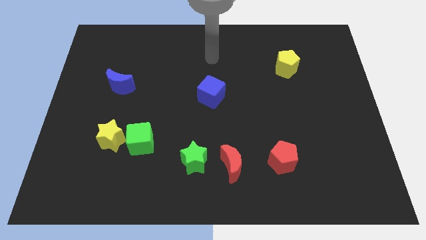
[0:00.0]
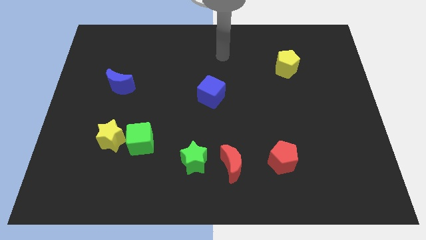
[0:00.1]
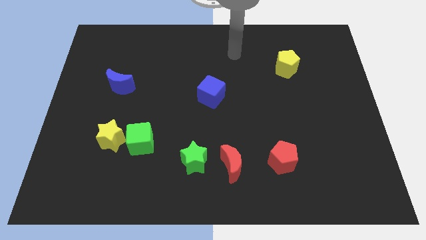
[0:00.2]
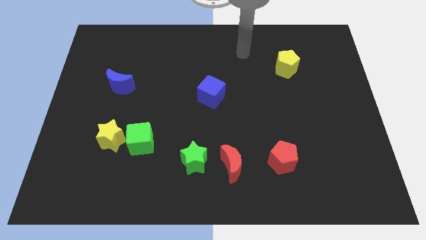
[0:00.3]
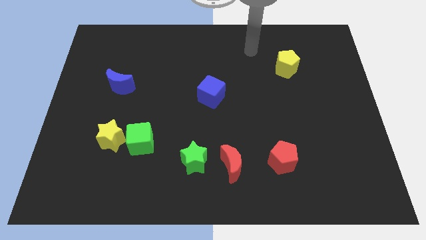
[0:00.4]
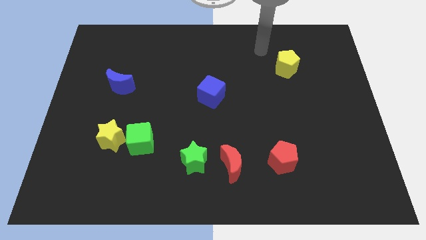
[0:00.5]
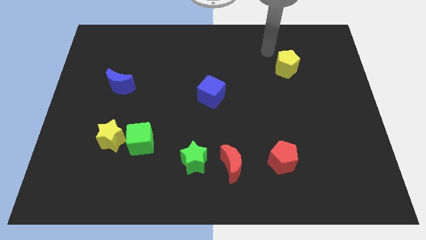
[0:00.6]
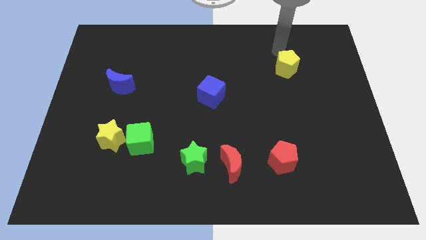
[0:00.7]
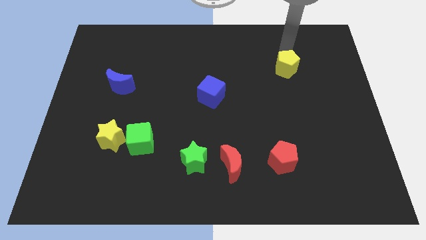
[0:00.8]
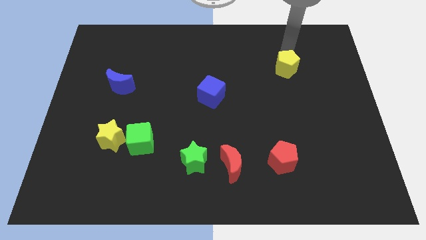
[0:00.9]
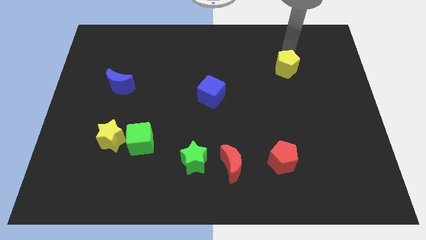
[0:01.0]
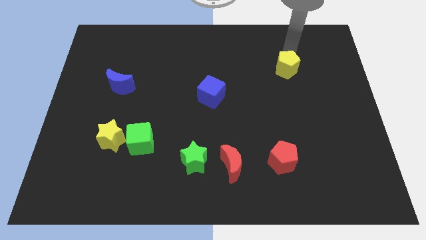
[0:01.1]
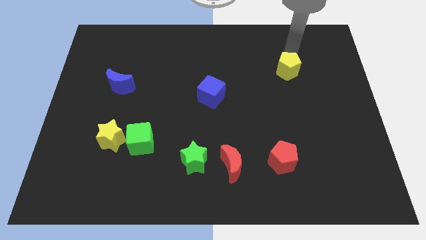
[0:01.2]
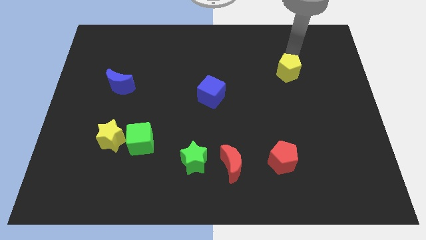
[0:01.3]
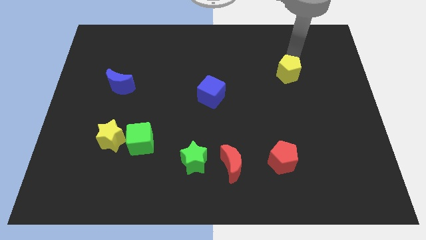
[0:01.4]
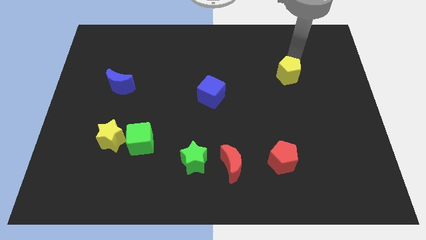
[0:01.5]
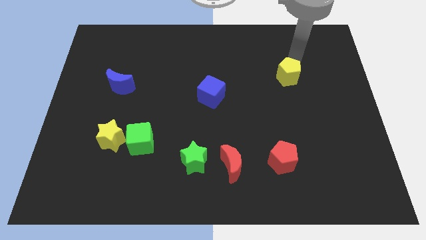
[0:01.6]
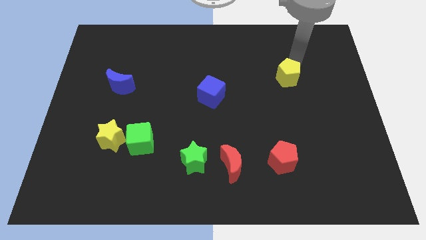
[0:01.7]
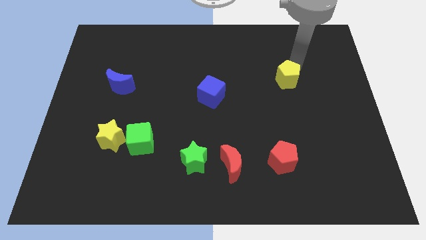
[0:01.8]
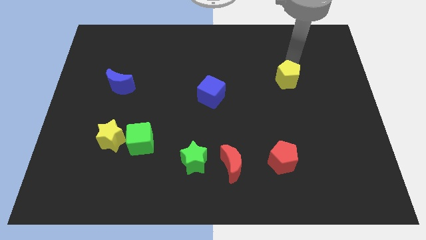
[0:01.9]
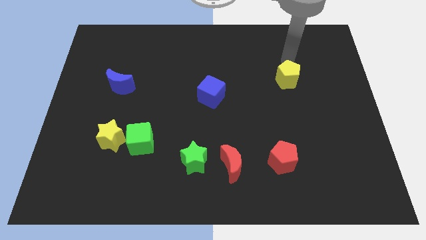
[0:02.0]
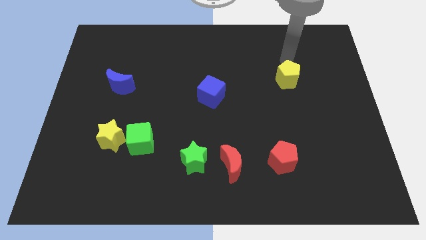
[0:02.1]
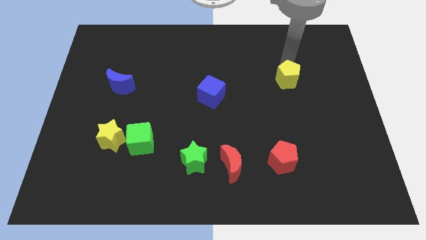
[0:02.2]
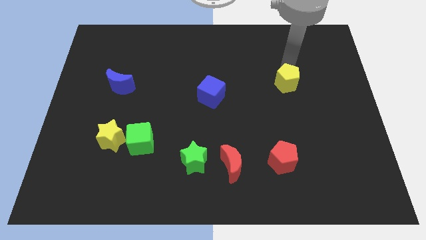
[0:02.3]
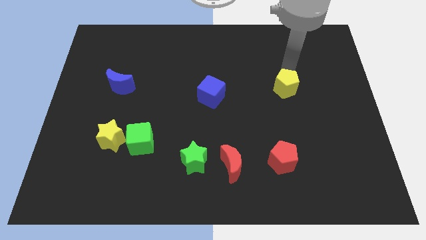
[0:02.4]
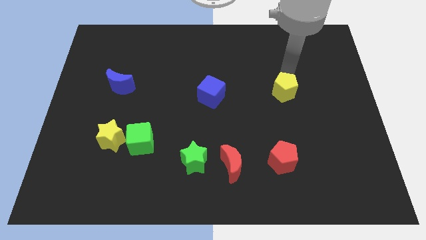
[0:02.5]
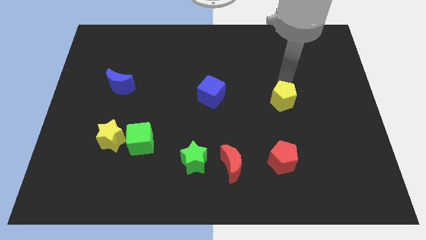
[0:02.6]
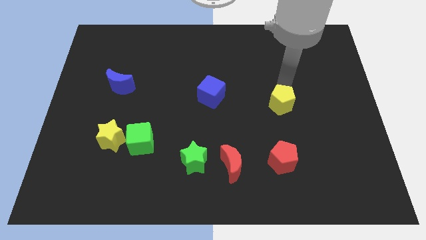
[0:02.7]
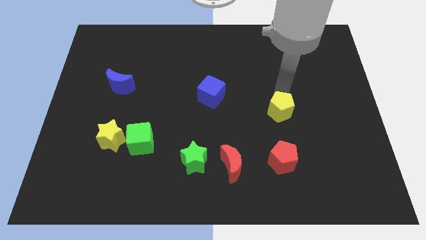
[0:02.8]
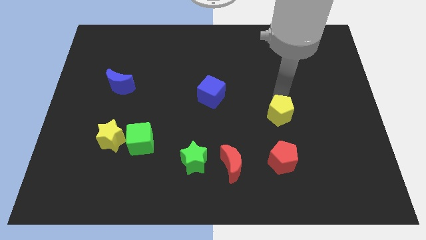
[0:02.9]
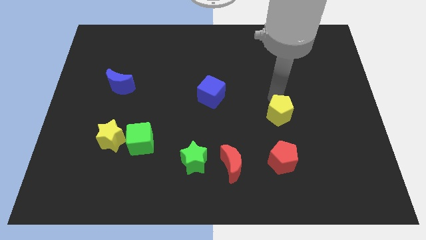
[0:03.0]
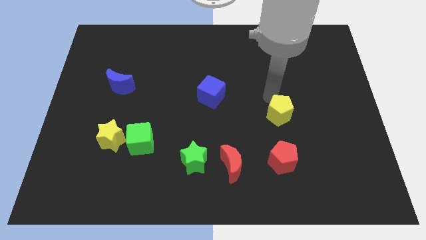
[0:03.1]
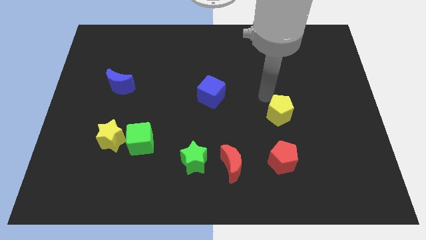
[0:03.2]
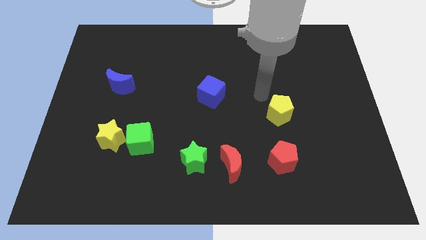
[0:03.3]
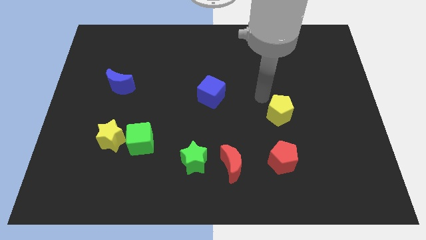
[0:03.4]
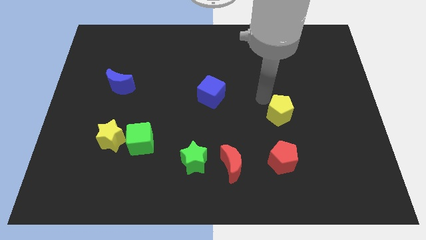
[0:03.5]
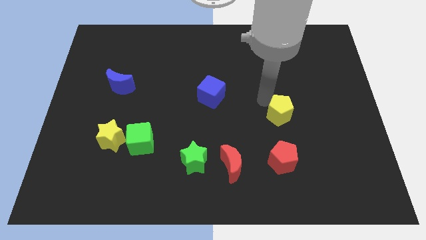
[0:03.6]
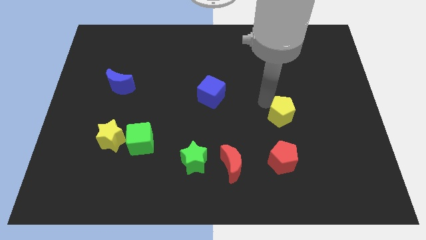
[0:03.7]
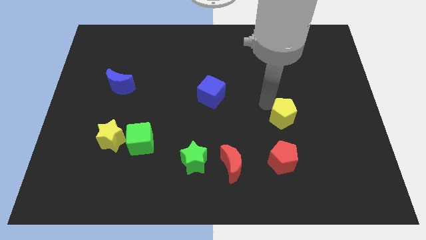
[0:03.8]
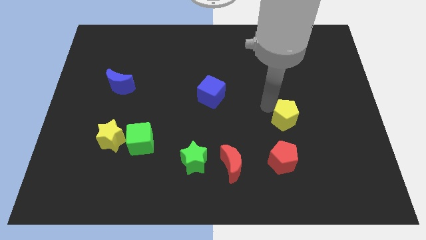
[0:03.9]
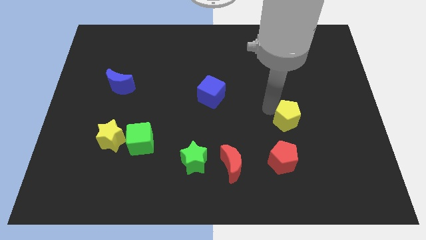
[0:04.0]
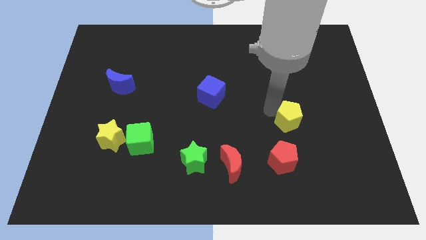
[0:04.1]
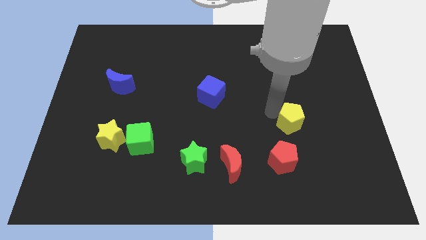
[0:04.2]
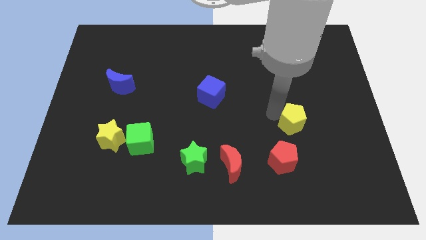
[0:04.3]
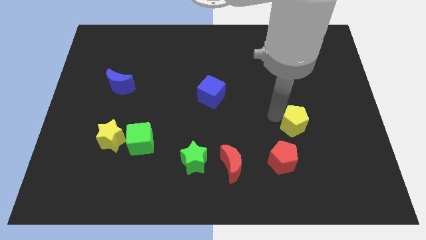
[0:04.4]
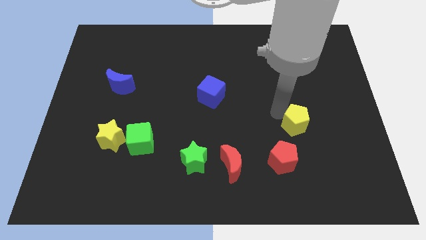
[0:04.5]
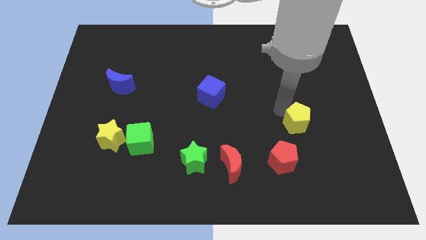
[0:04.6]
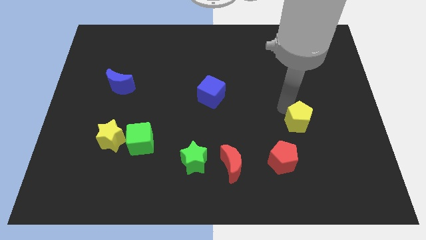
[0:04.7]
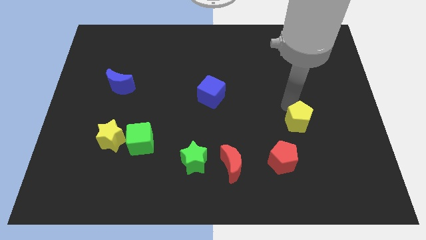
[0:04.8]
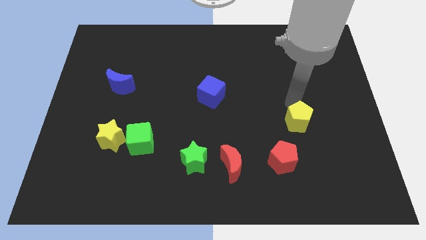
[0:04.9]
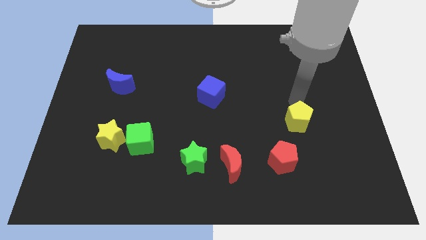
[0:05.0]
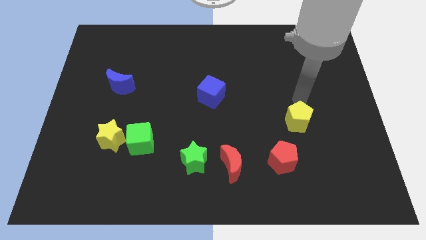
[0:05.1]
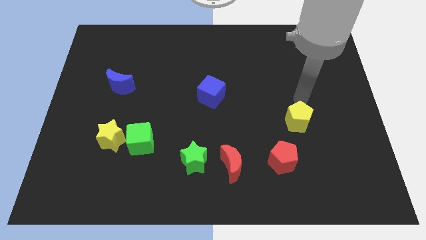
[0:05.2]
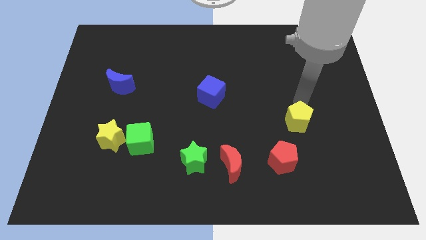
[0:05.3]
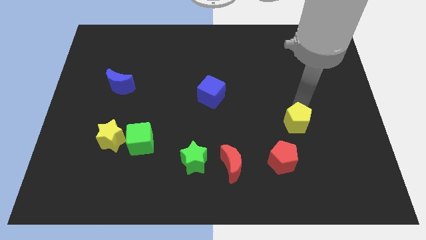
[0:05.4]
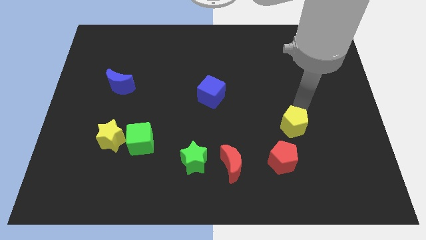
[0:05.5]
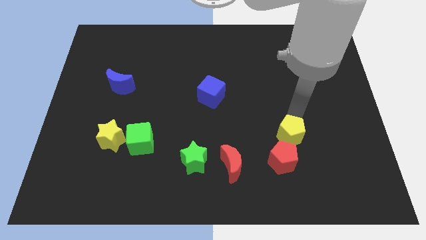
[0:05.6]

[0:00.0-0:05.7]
move the yellow pentagon down

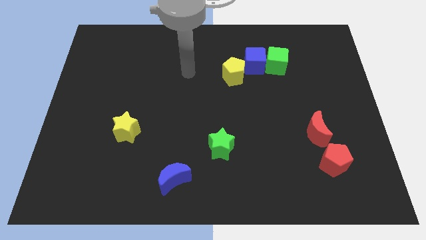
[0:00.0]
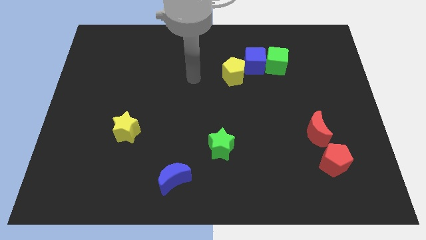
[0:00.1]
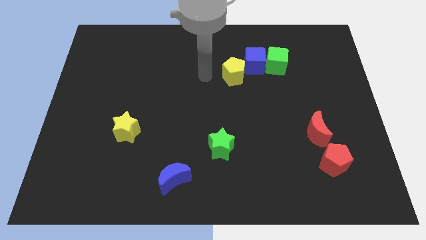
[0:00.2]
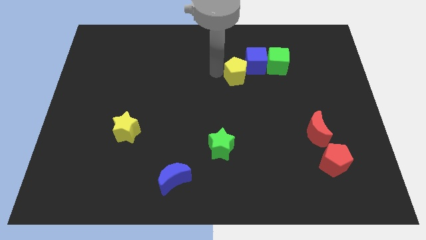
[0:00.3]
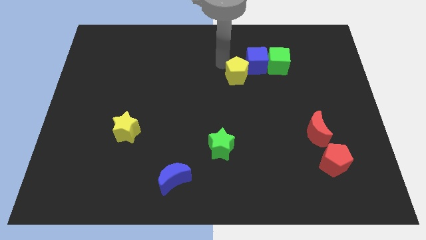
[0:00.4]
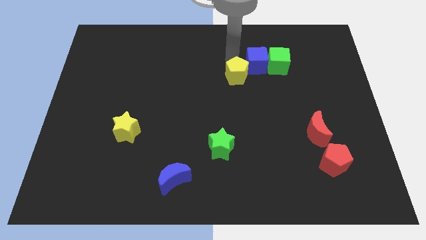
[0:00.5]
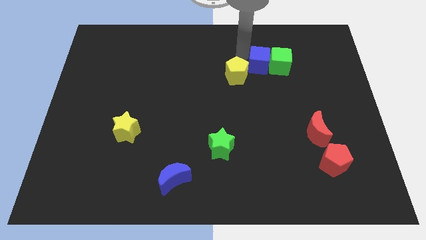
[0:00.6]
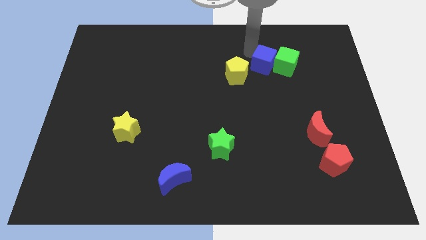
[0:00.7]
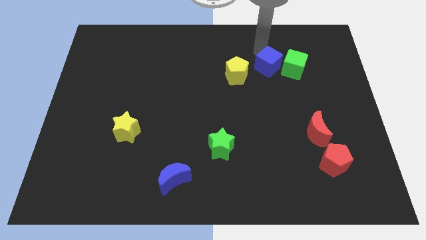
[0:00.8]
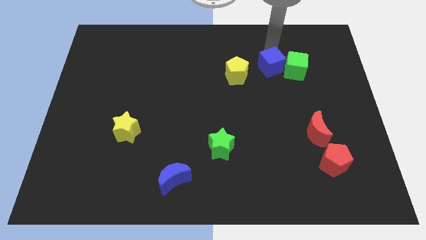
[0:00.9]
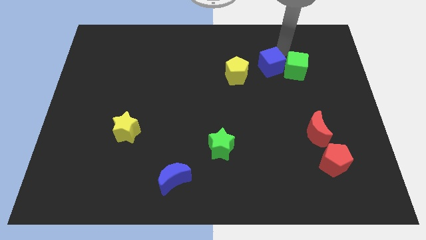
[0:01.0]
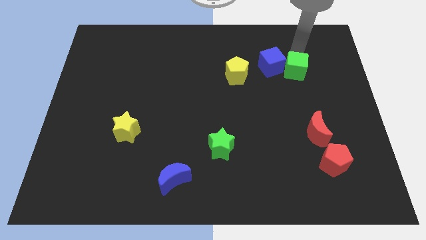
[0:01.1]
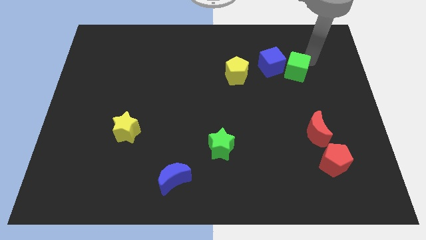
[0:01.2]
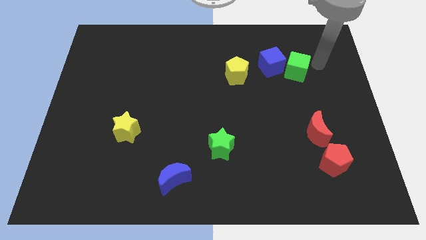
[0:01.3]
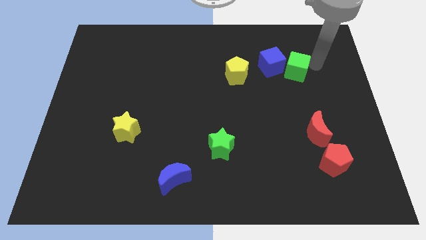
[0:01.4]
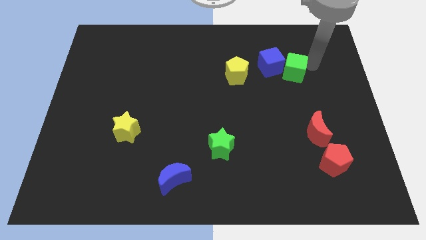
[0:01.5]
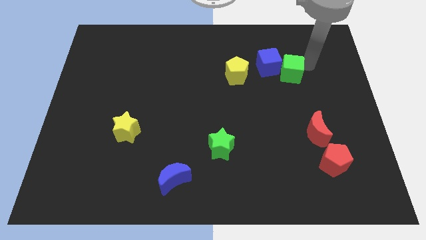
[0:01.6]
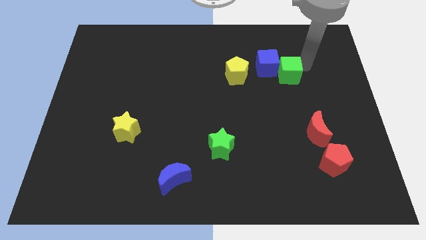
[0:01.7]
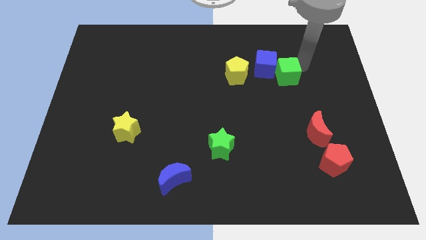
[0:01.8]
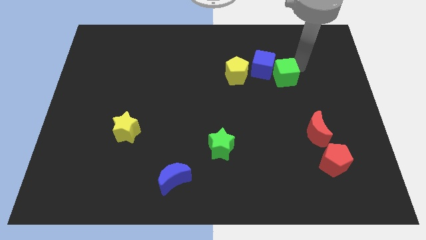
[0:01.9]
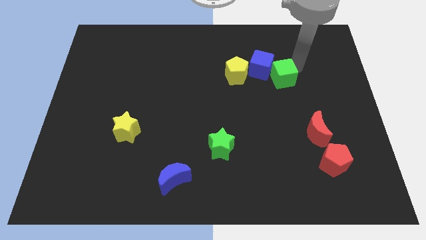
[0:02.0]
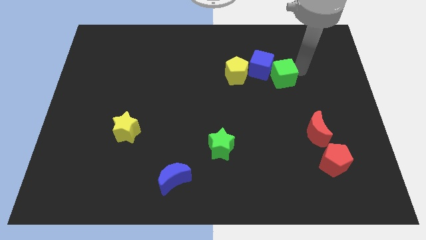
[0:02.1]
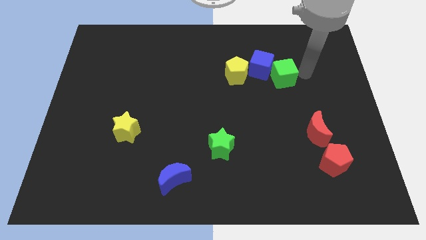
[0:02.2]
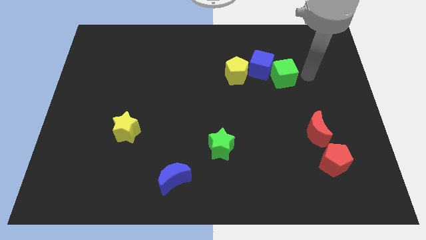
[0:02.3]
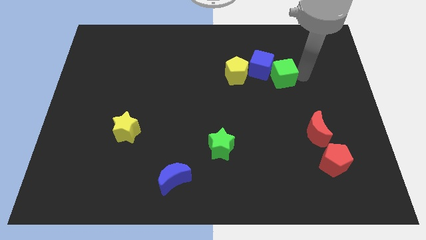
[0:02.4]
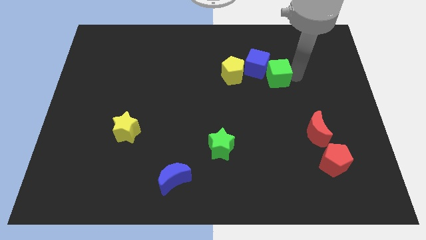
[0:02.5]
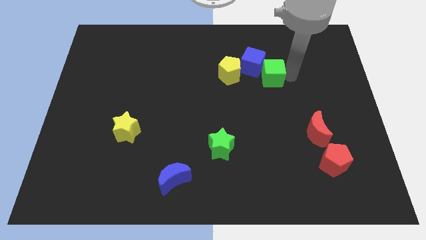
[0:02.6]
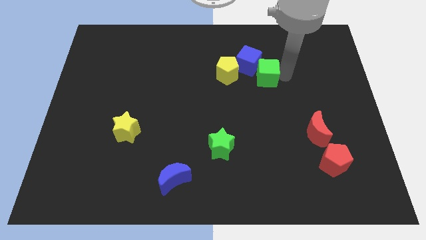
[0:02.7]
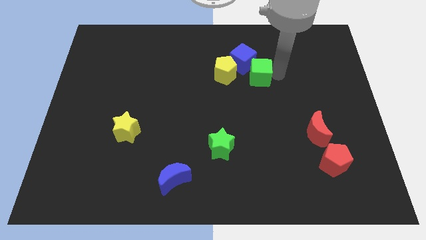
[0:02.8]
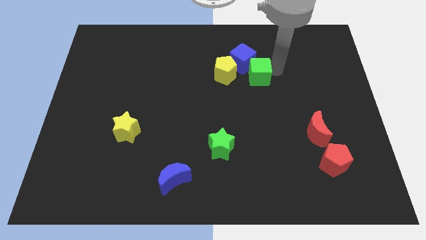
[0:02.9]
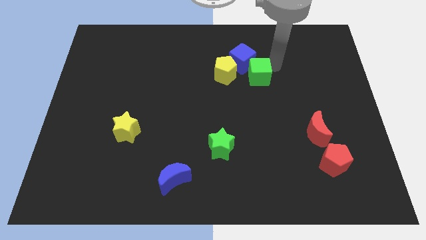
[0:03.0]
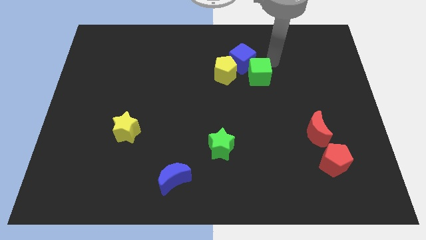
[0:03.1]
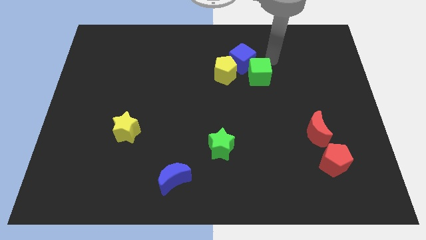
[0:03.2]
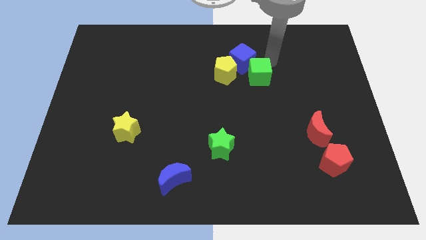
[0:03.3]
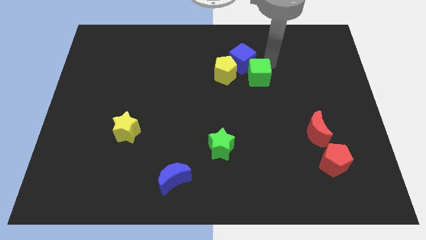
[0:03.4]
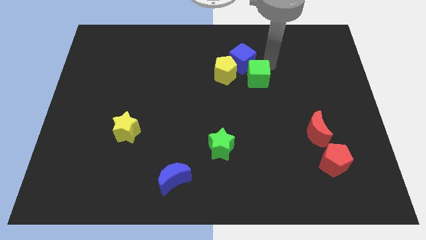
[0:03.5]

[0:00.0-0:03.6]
slightly push the green cube down and to the left diagonally
